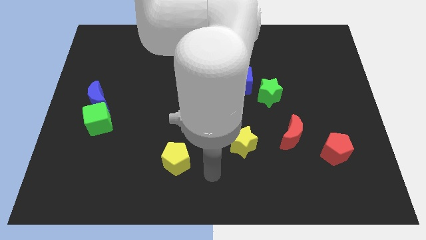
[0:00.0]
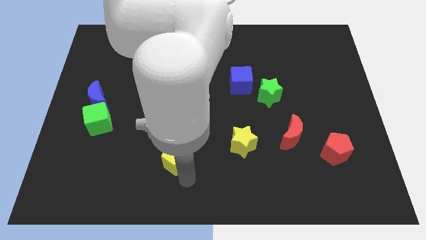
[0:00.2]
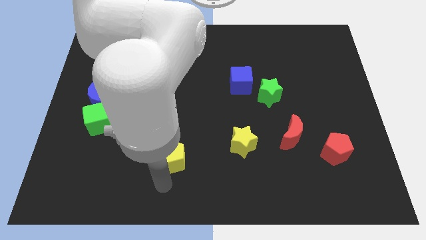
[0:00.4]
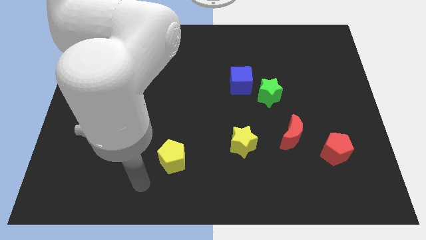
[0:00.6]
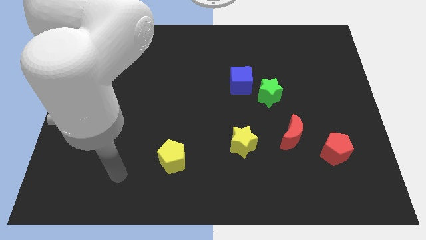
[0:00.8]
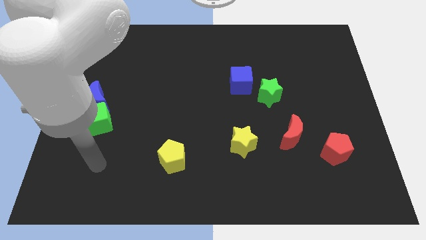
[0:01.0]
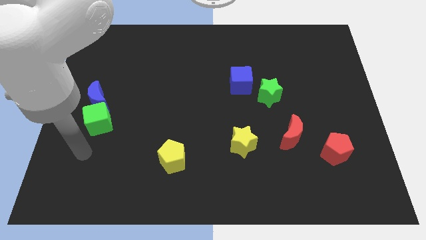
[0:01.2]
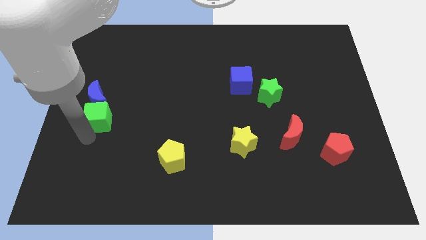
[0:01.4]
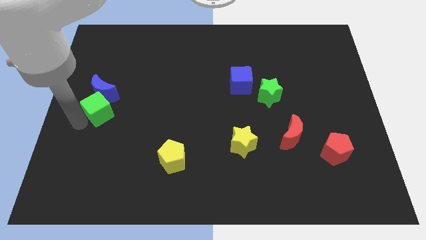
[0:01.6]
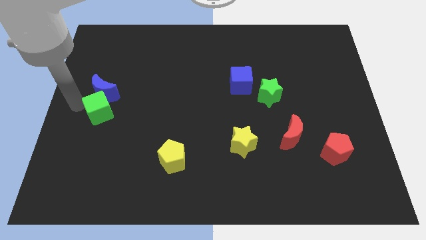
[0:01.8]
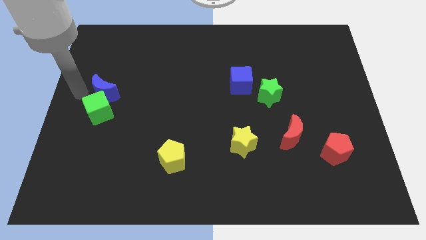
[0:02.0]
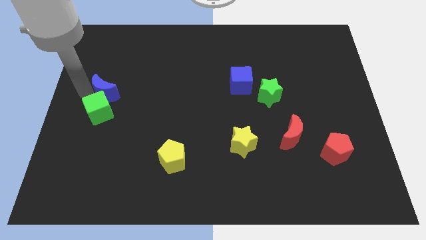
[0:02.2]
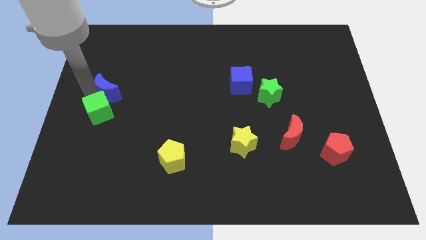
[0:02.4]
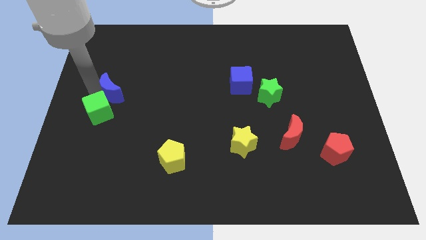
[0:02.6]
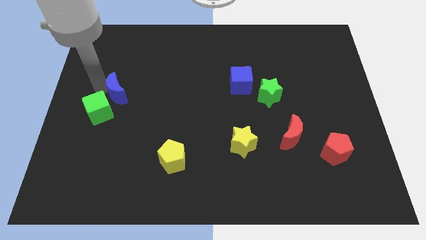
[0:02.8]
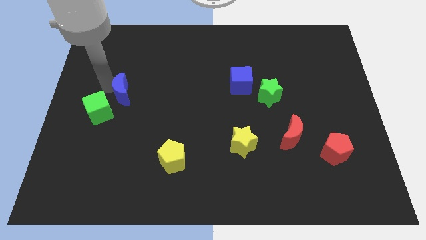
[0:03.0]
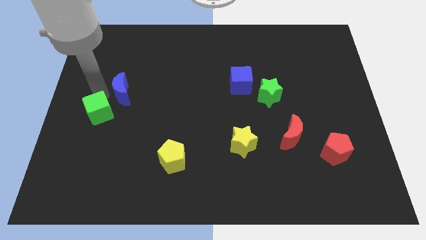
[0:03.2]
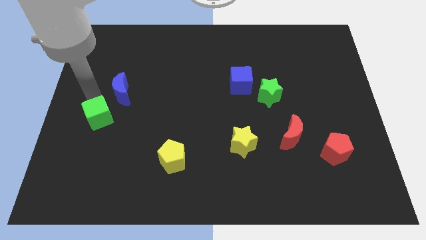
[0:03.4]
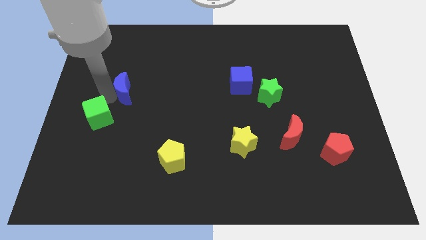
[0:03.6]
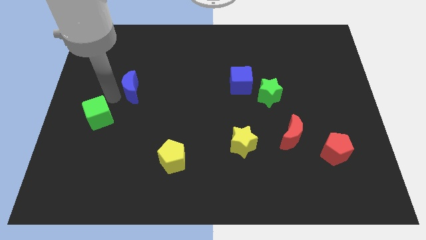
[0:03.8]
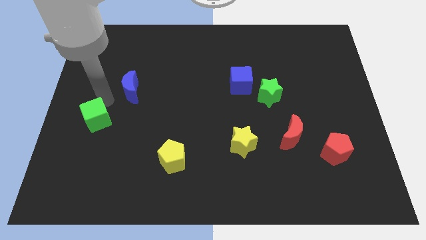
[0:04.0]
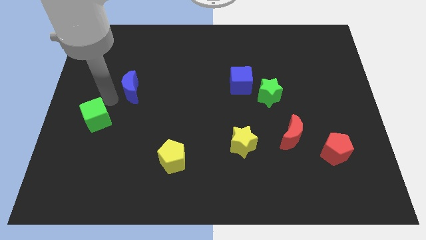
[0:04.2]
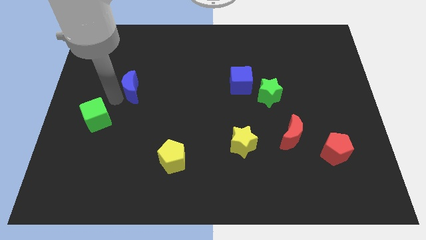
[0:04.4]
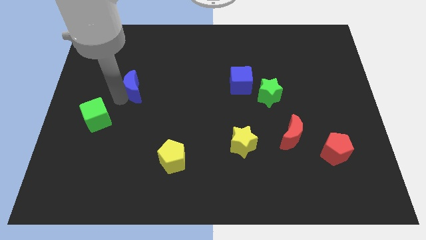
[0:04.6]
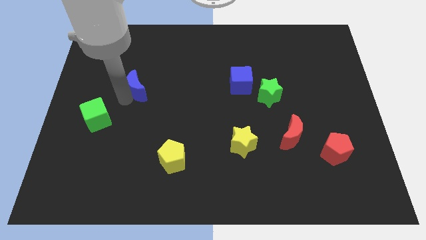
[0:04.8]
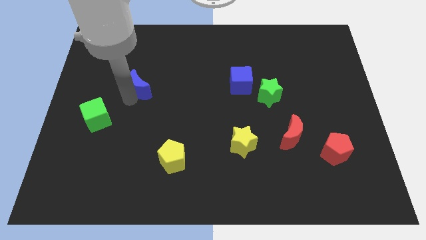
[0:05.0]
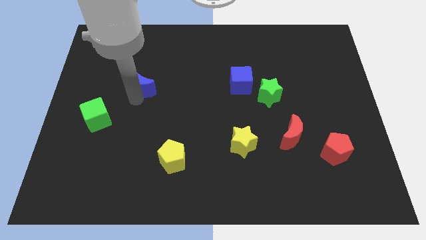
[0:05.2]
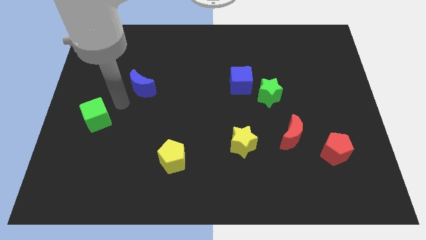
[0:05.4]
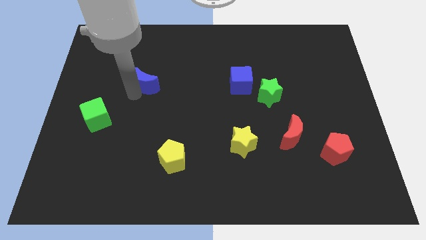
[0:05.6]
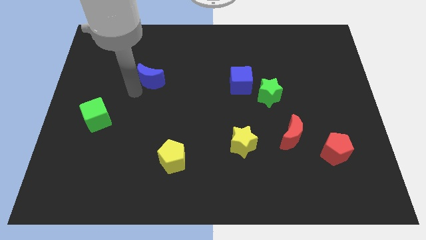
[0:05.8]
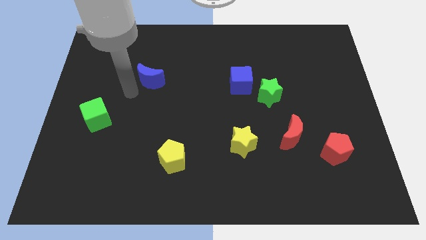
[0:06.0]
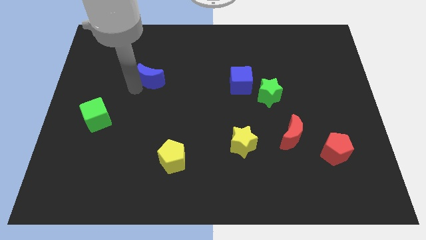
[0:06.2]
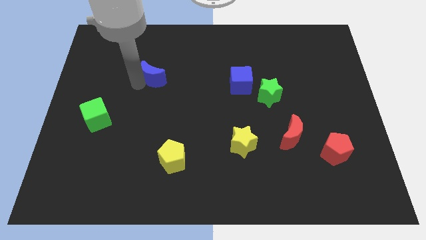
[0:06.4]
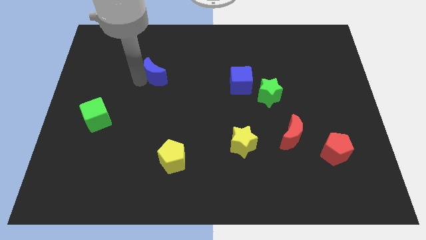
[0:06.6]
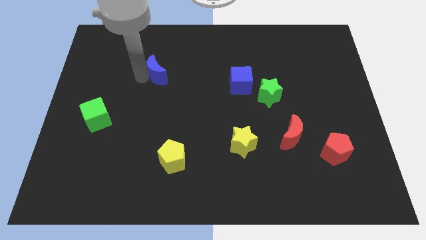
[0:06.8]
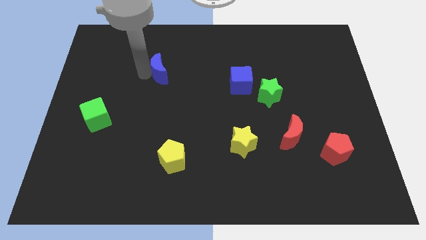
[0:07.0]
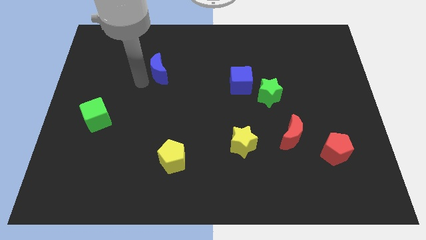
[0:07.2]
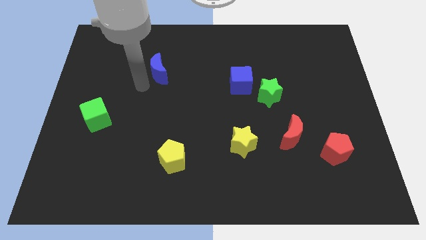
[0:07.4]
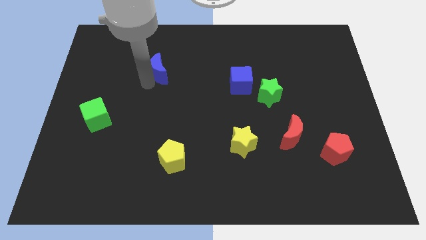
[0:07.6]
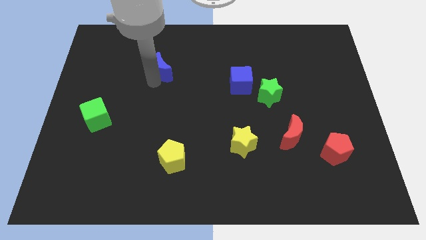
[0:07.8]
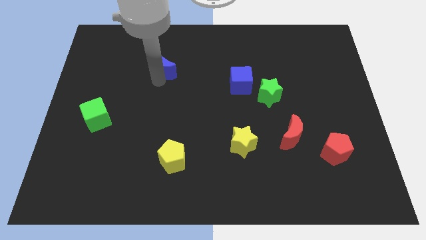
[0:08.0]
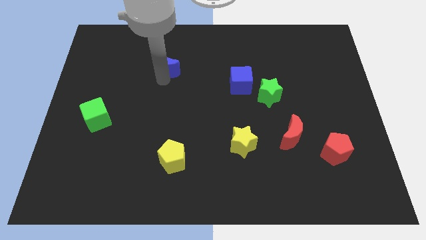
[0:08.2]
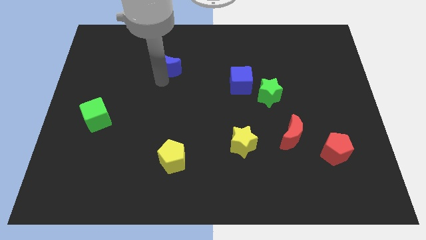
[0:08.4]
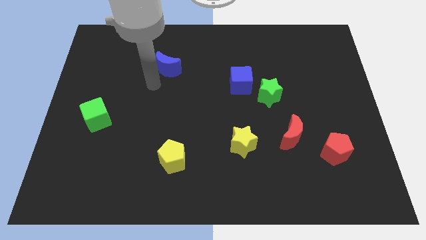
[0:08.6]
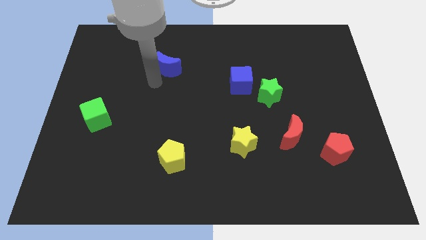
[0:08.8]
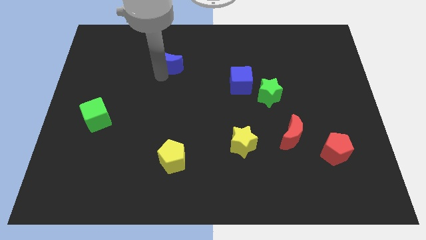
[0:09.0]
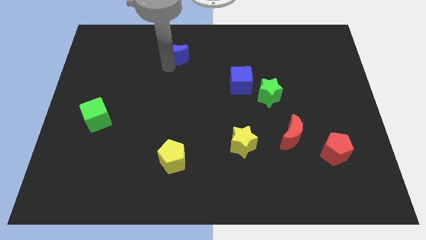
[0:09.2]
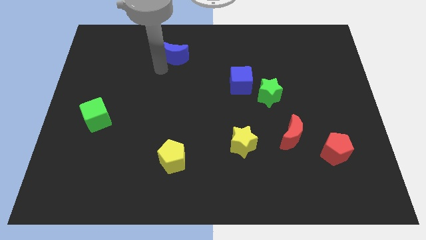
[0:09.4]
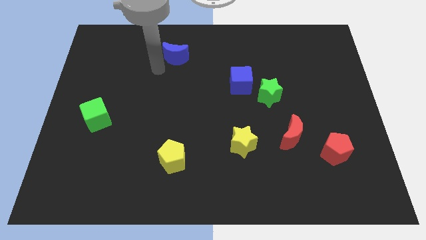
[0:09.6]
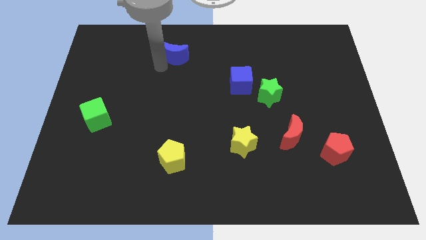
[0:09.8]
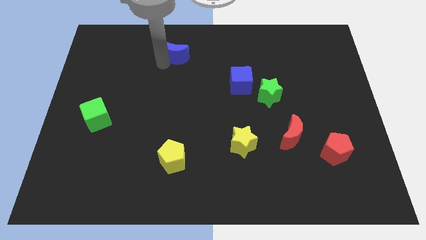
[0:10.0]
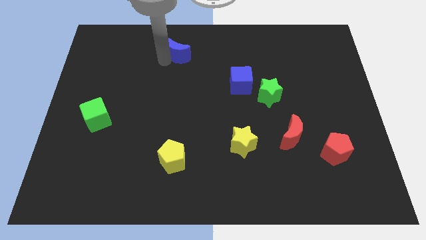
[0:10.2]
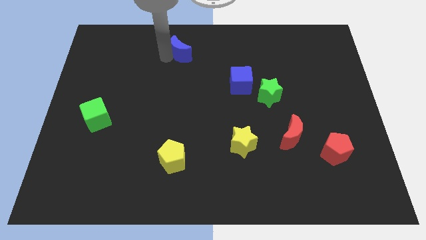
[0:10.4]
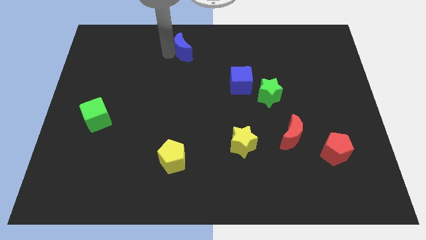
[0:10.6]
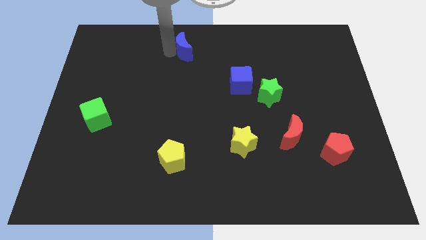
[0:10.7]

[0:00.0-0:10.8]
slide the blue moon to the towards your base

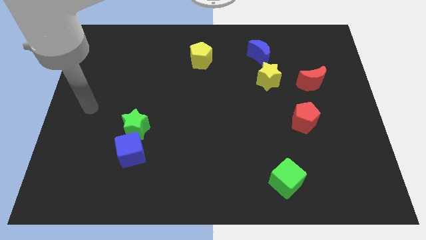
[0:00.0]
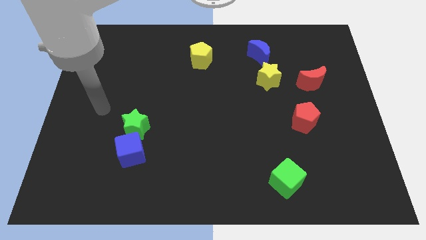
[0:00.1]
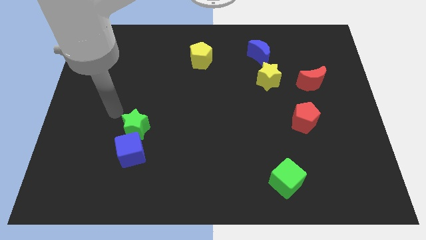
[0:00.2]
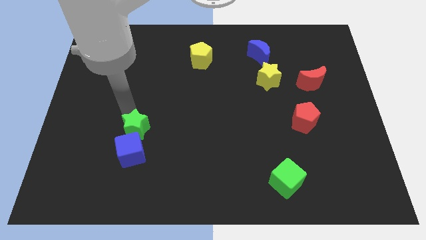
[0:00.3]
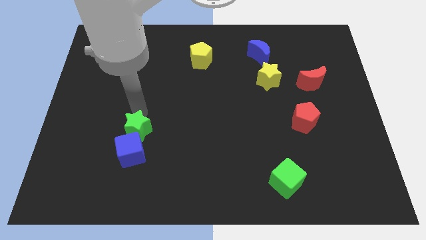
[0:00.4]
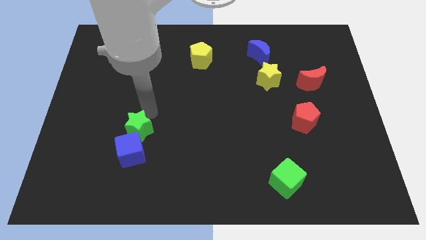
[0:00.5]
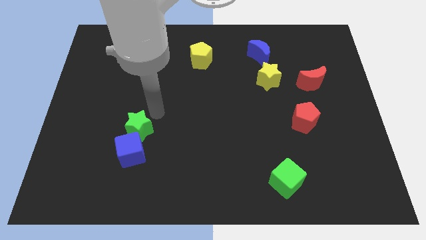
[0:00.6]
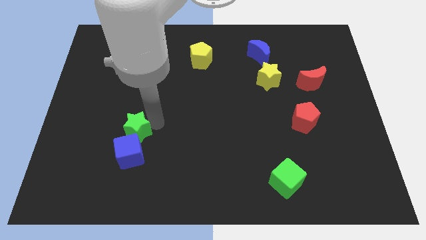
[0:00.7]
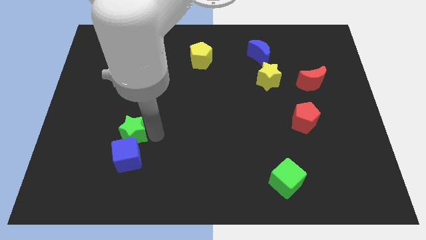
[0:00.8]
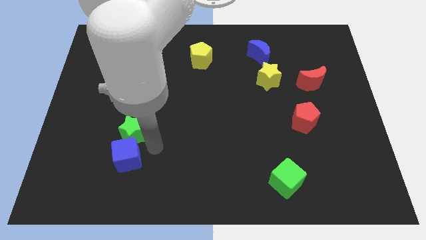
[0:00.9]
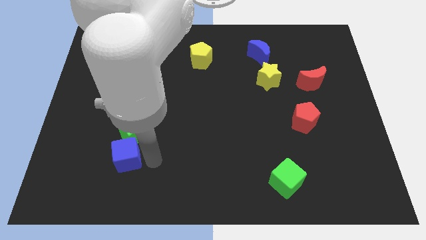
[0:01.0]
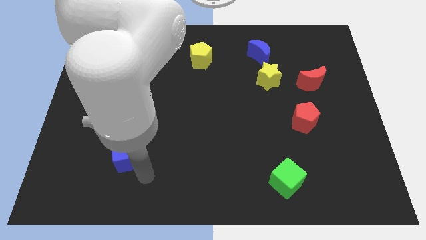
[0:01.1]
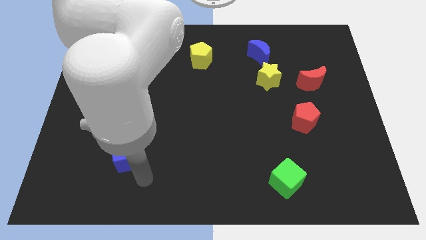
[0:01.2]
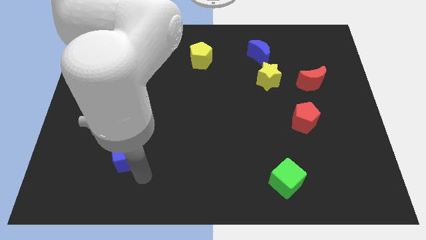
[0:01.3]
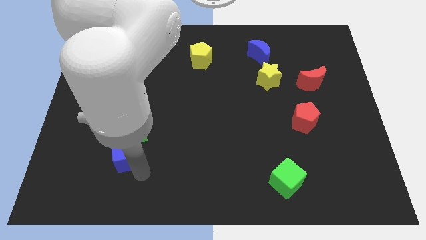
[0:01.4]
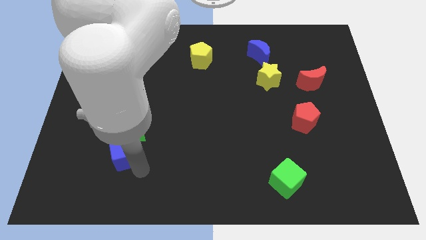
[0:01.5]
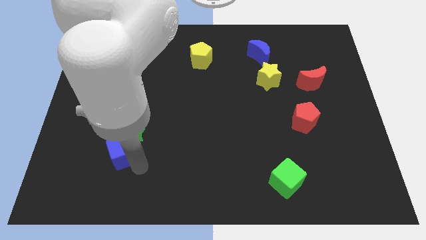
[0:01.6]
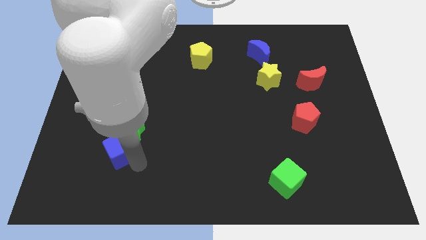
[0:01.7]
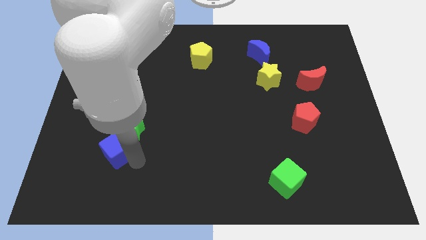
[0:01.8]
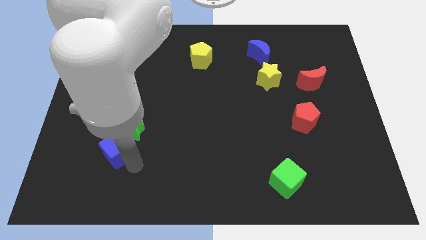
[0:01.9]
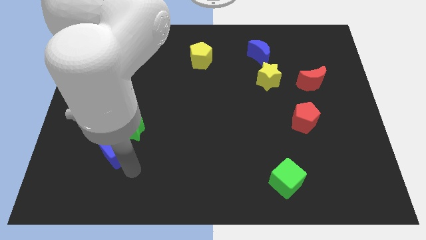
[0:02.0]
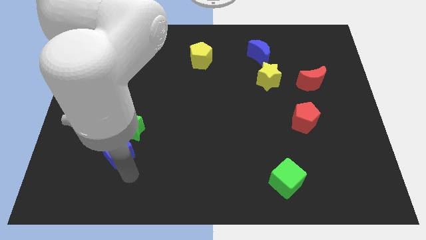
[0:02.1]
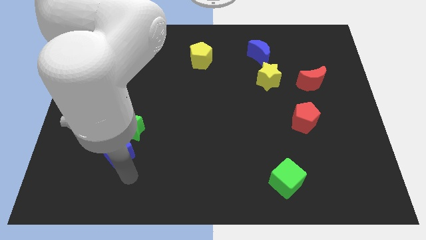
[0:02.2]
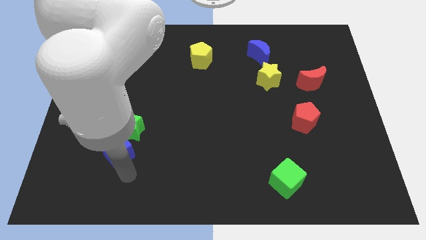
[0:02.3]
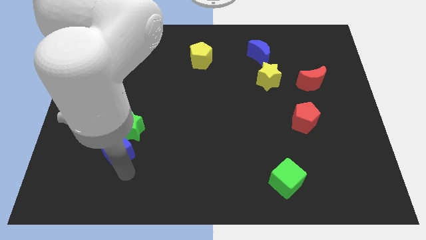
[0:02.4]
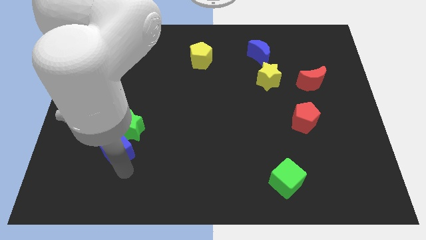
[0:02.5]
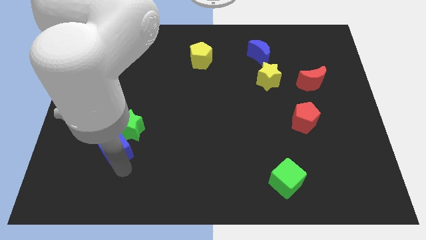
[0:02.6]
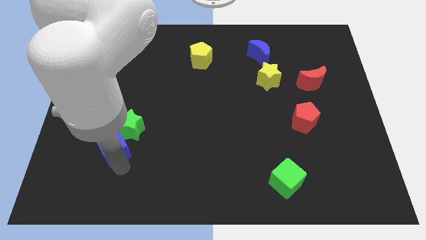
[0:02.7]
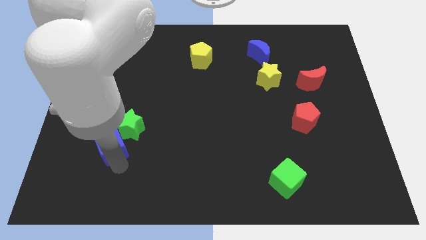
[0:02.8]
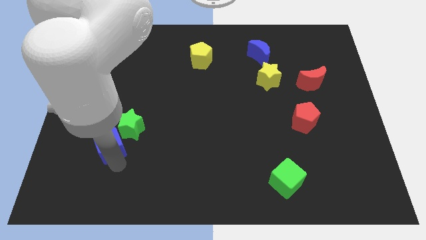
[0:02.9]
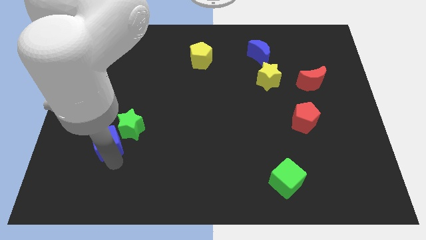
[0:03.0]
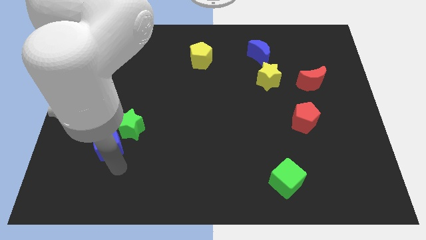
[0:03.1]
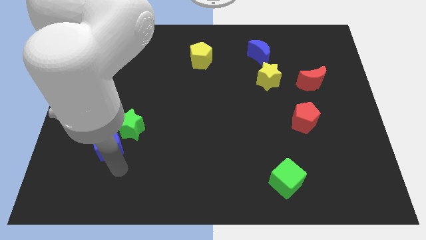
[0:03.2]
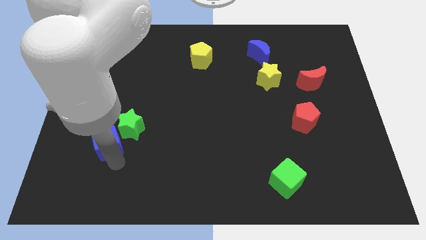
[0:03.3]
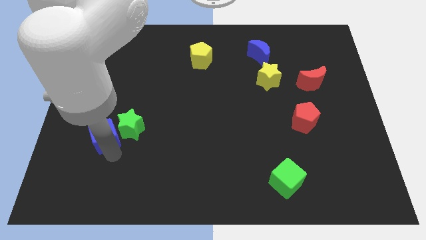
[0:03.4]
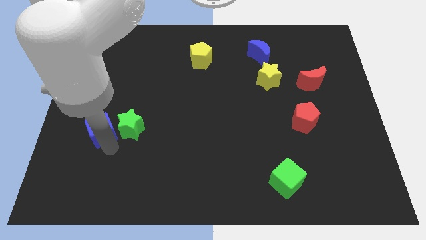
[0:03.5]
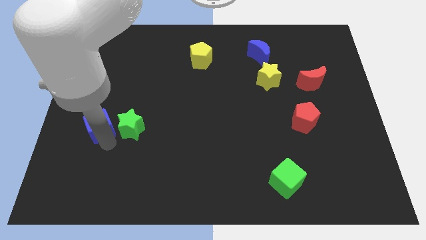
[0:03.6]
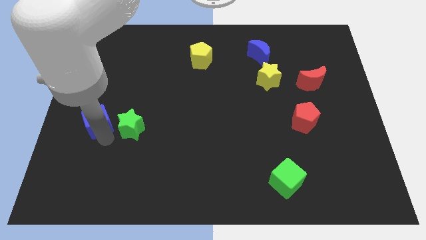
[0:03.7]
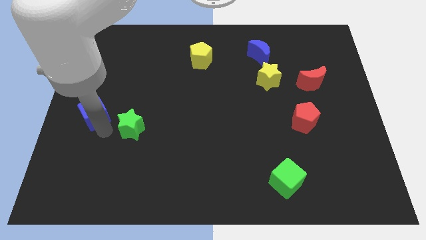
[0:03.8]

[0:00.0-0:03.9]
put the blue cube to the left side
